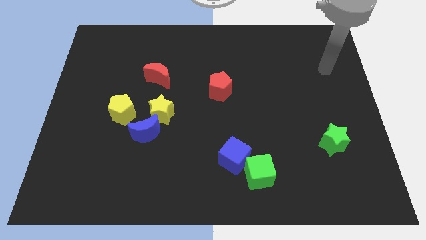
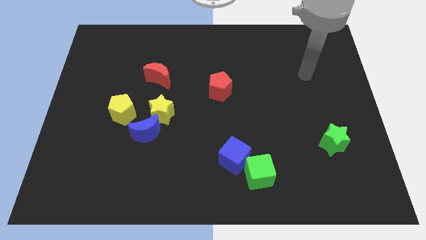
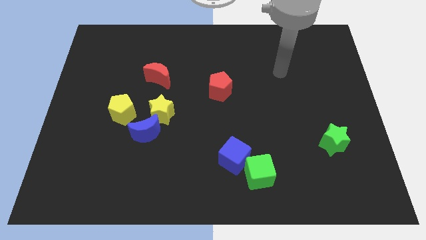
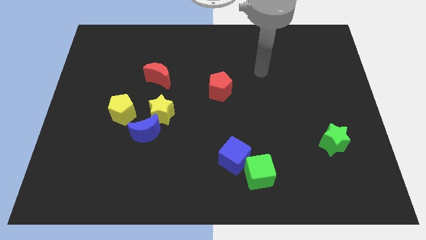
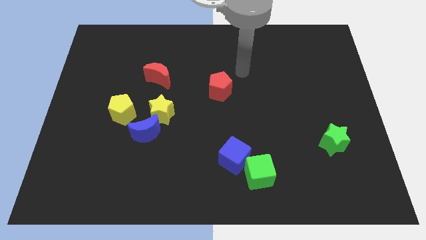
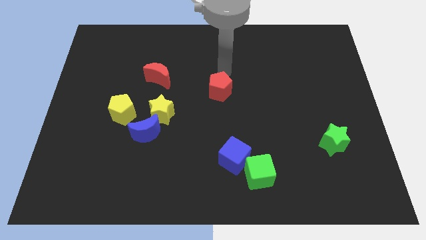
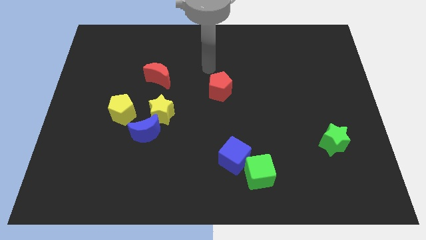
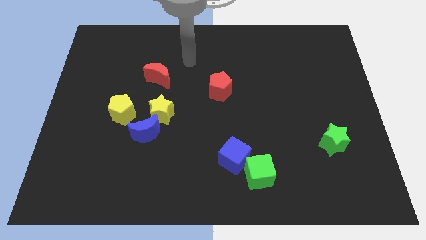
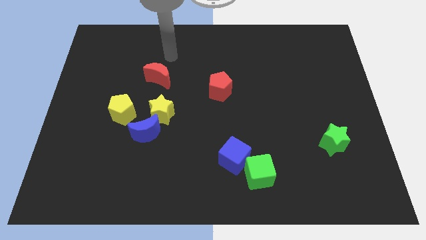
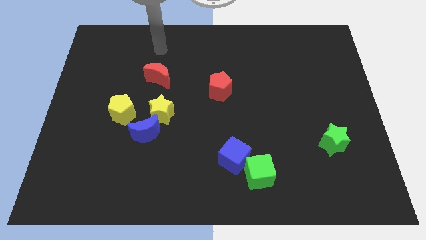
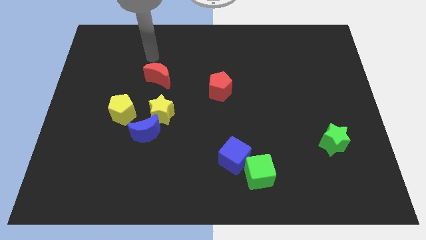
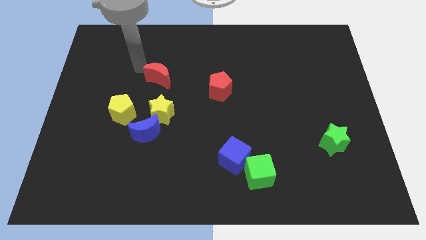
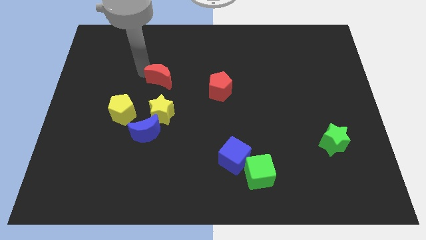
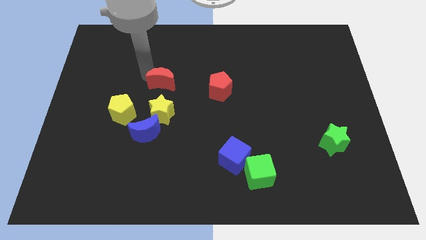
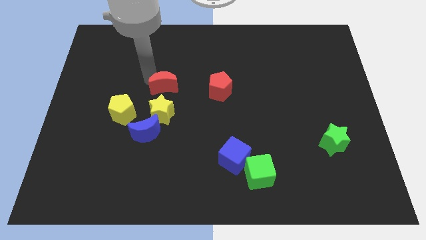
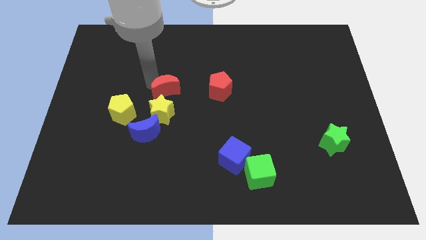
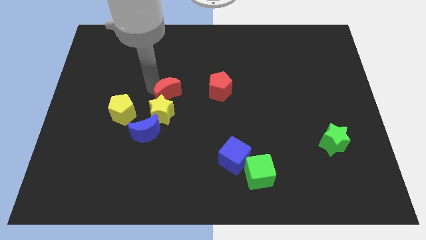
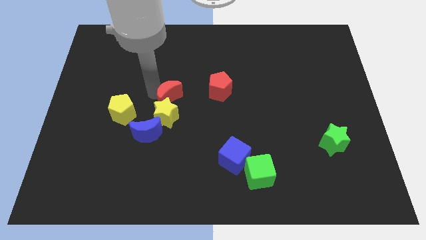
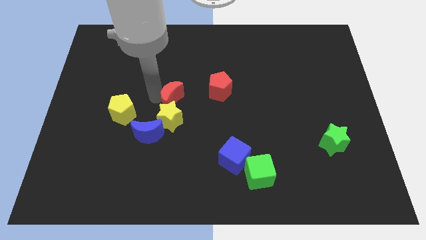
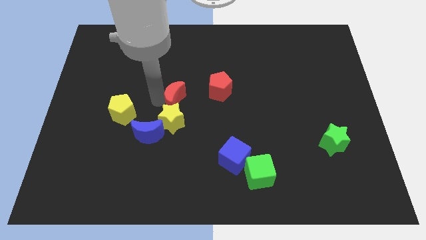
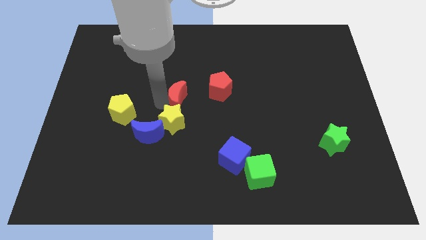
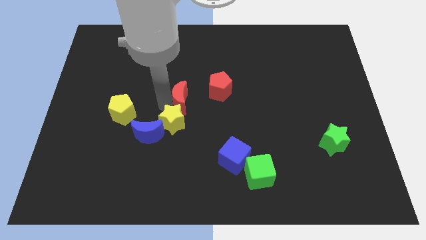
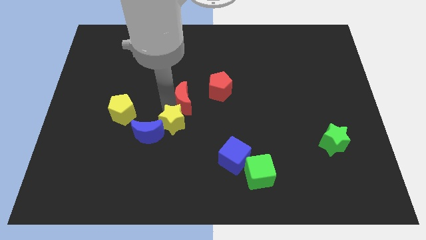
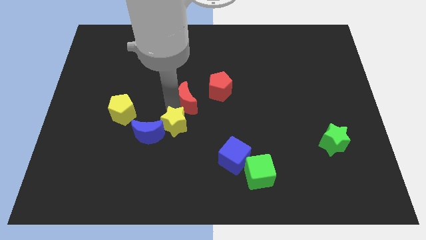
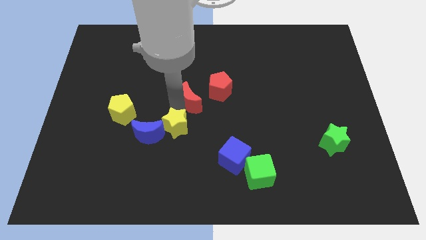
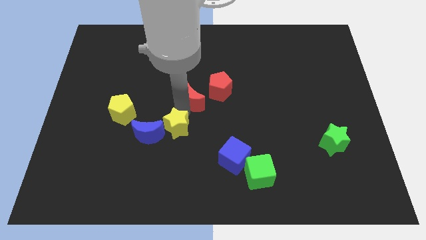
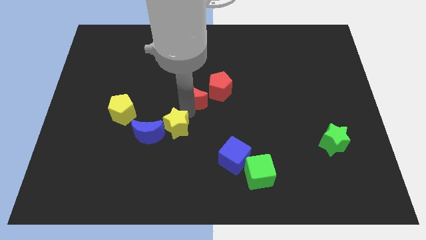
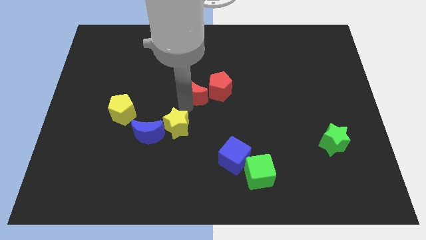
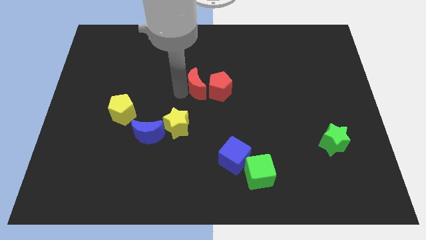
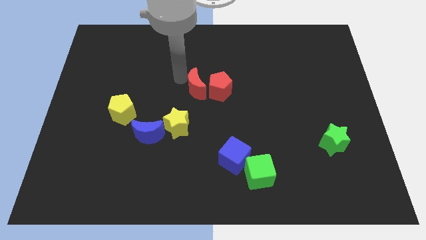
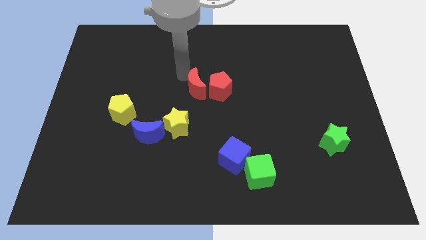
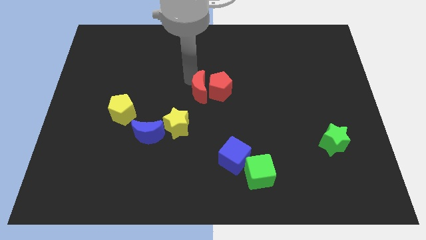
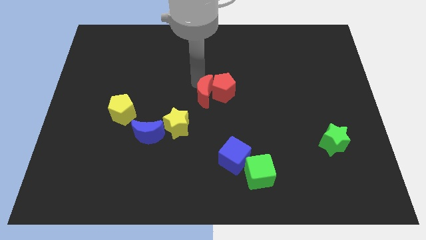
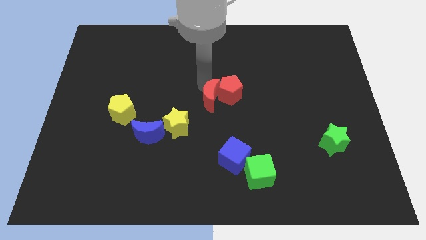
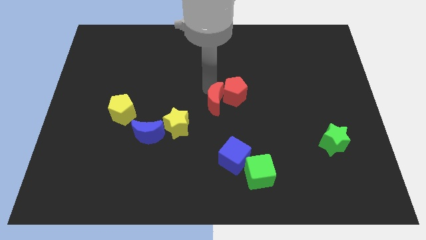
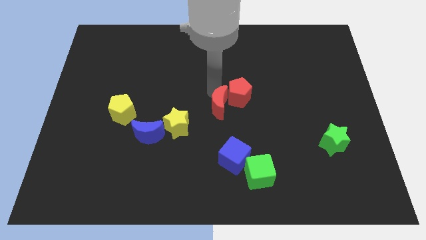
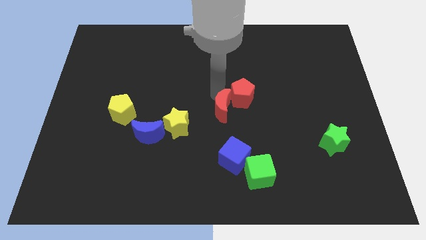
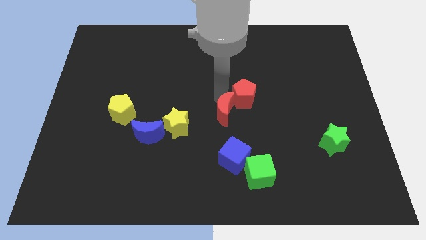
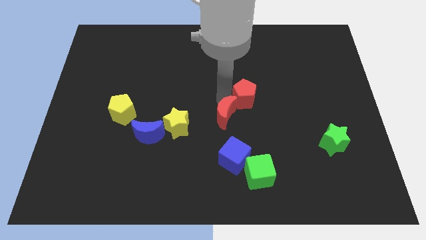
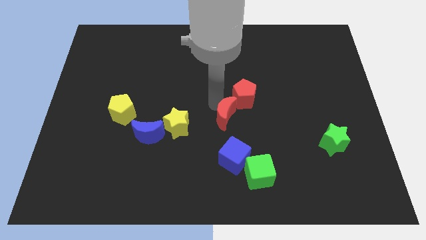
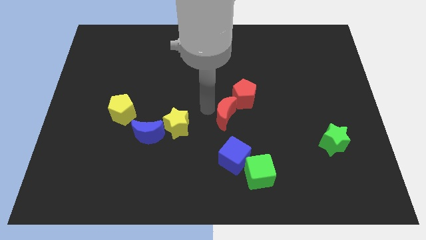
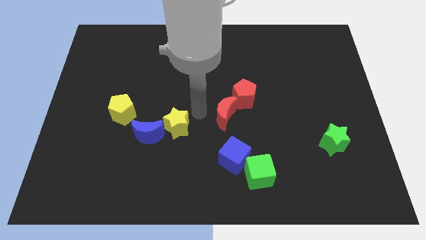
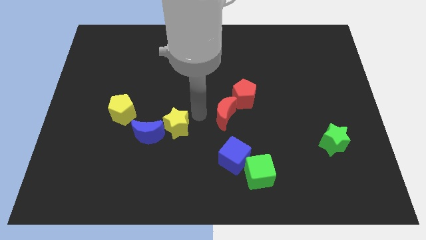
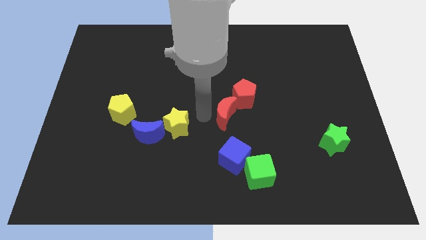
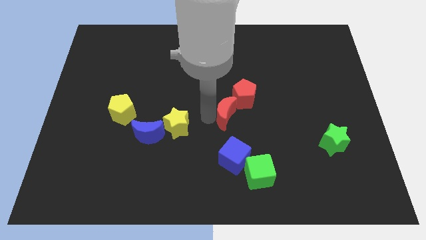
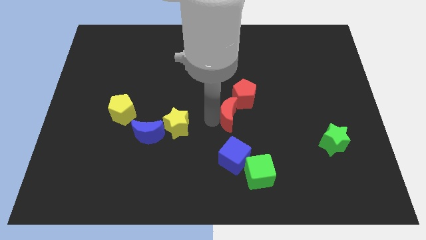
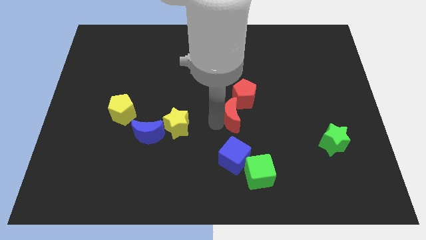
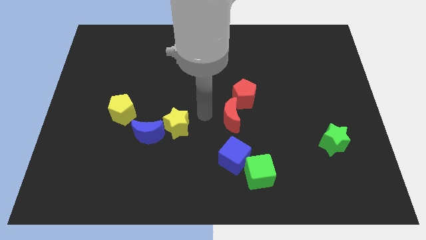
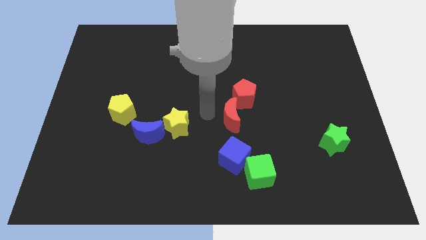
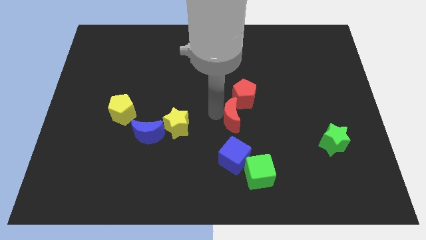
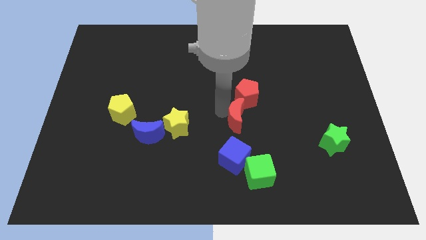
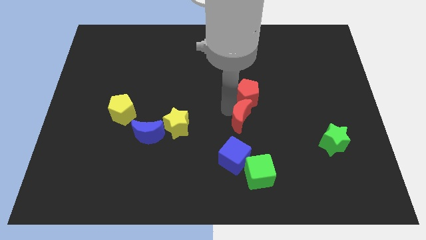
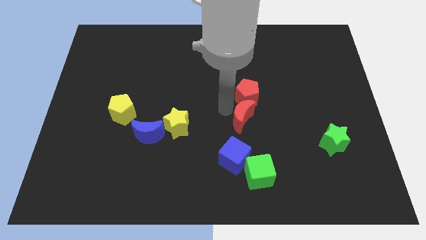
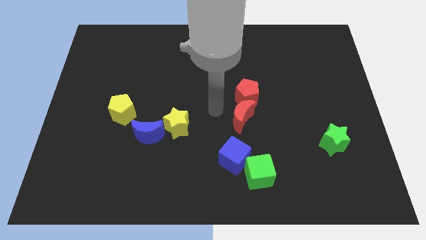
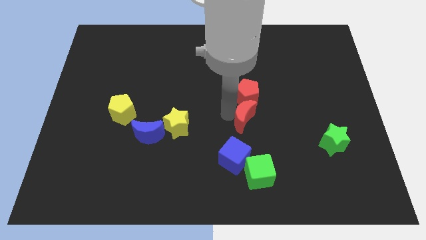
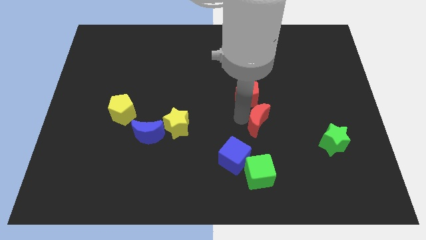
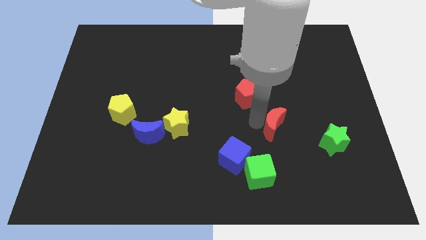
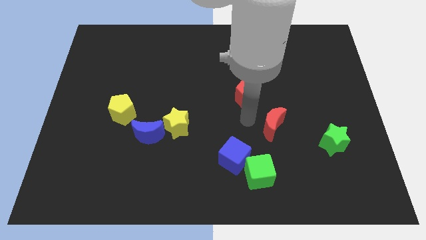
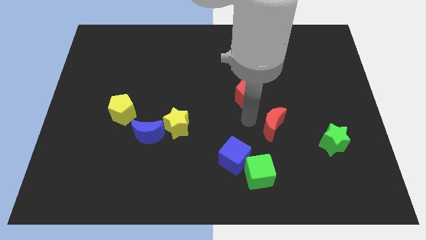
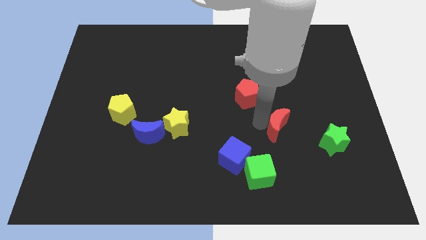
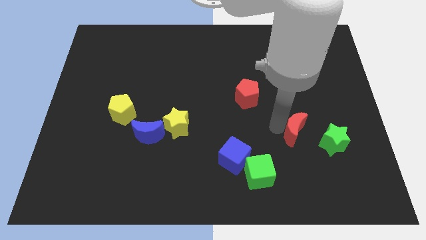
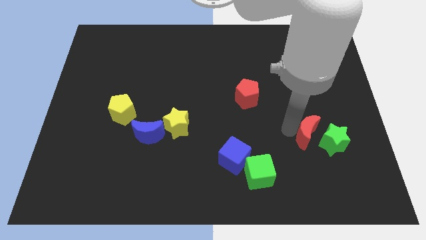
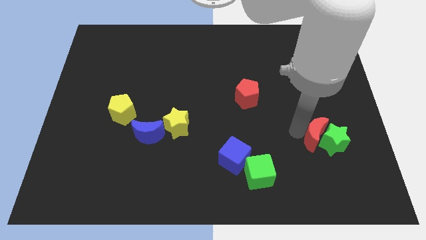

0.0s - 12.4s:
put the red moon close to the green star
